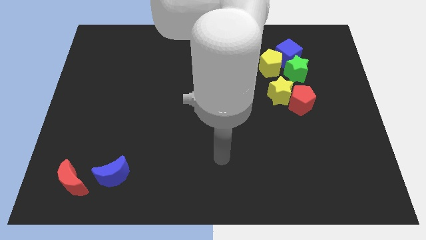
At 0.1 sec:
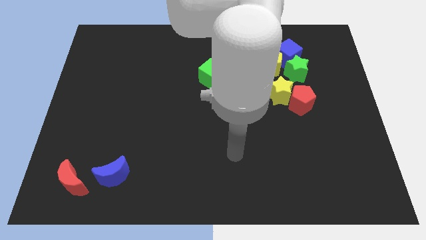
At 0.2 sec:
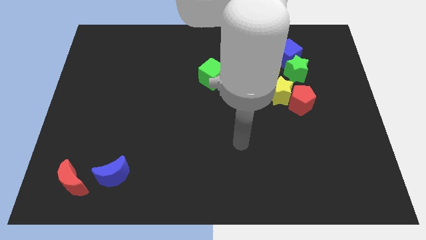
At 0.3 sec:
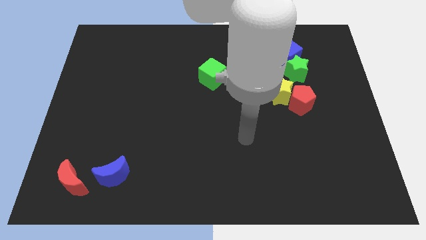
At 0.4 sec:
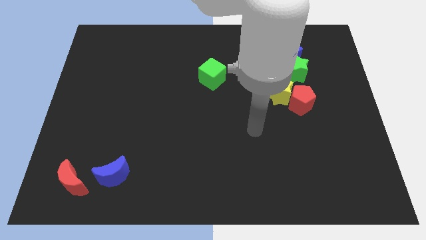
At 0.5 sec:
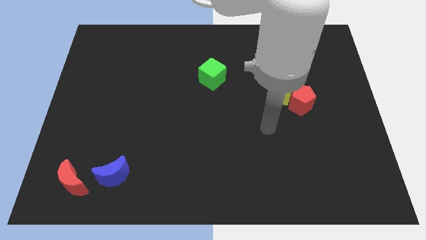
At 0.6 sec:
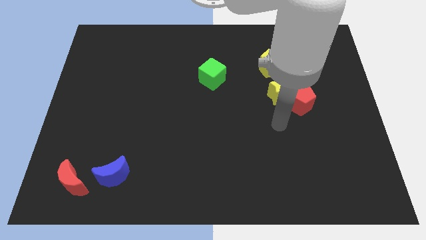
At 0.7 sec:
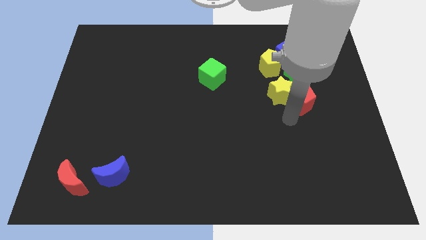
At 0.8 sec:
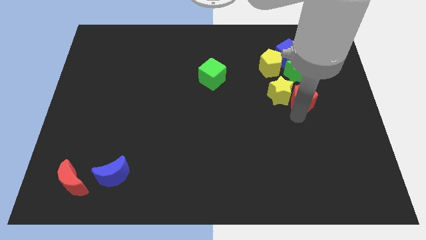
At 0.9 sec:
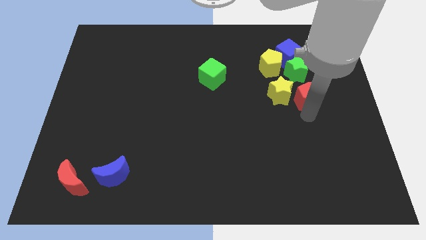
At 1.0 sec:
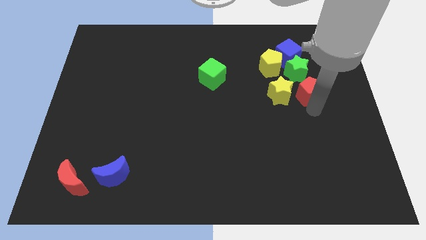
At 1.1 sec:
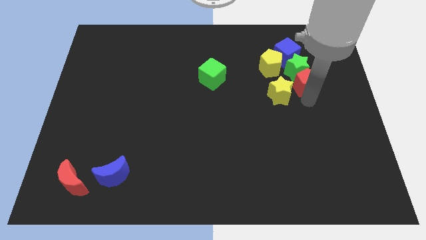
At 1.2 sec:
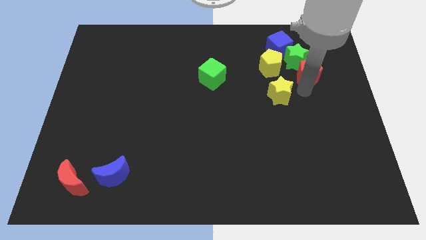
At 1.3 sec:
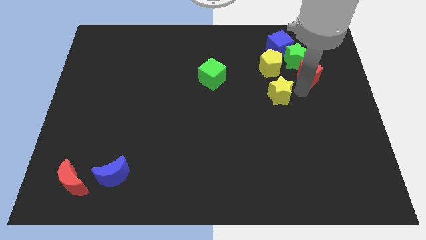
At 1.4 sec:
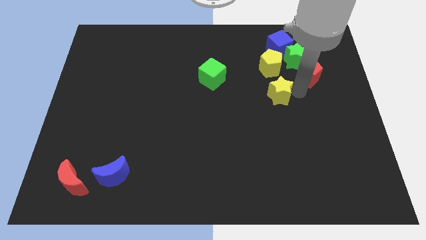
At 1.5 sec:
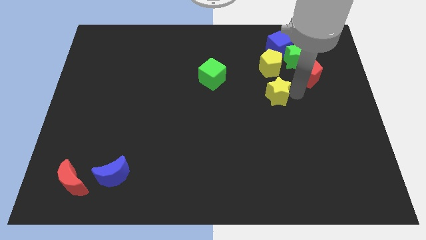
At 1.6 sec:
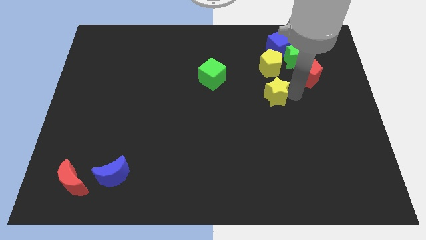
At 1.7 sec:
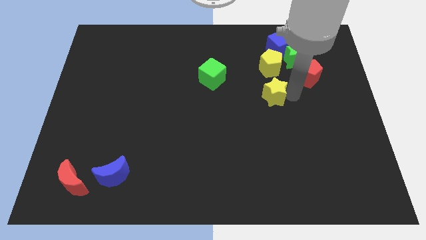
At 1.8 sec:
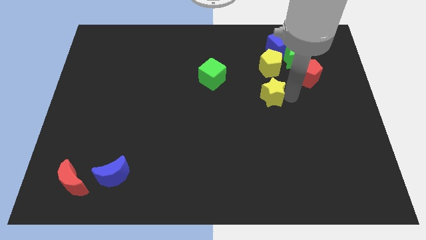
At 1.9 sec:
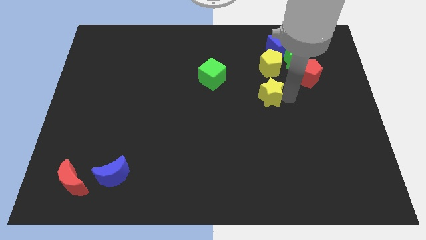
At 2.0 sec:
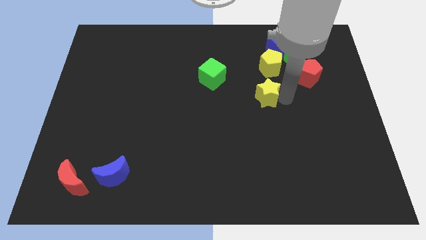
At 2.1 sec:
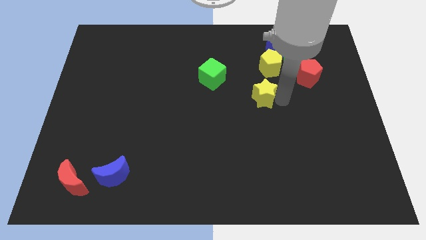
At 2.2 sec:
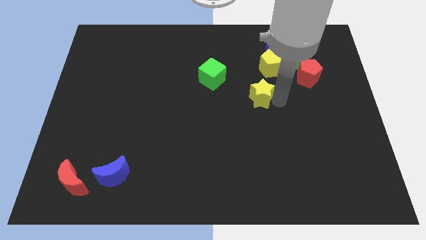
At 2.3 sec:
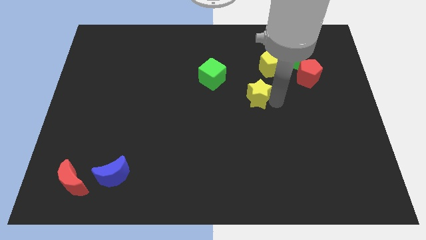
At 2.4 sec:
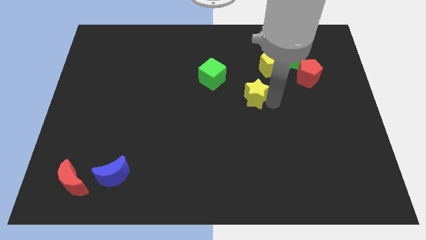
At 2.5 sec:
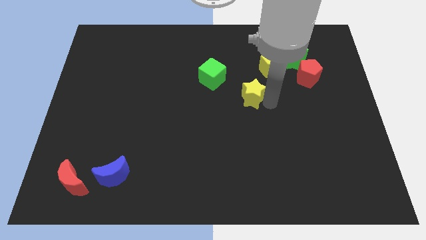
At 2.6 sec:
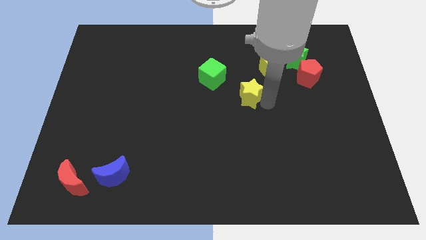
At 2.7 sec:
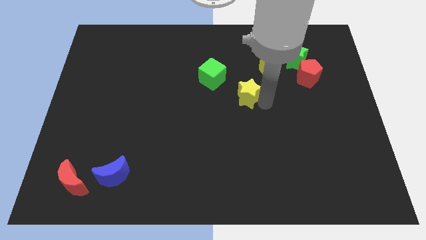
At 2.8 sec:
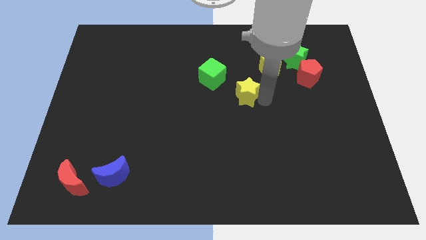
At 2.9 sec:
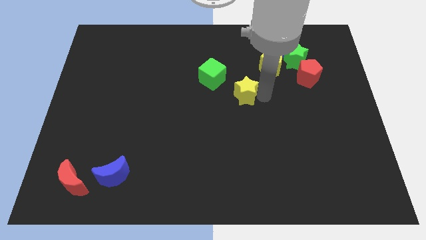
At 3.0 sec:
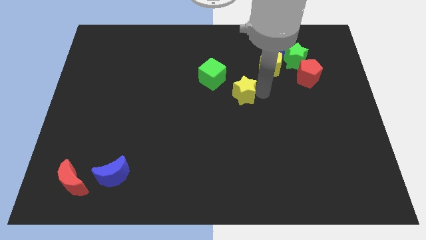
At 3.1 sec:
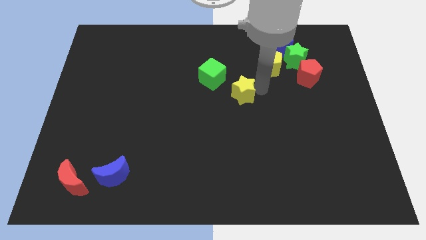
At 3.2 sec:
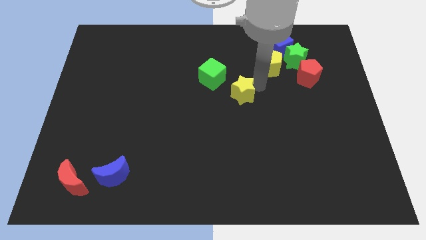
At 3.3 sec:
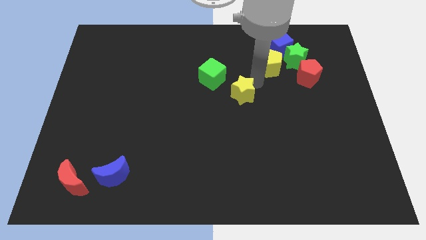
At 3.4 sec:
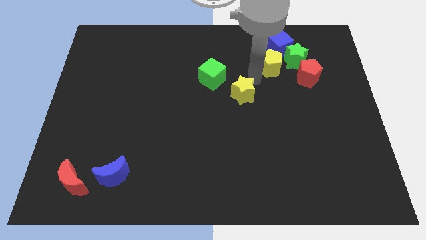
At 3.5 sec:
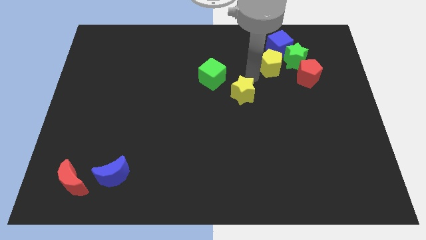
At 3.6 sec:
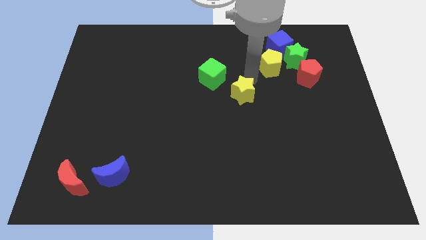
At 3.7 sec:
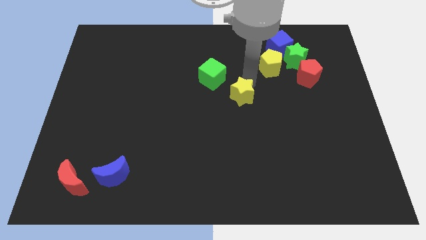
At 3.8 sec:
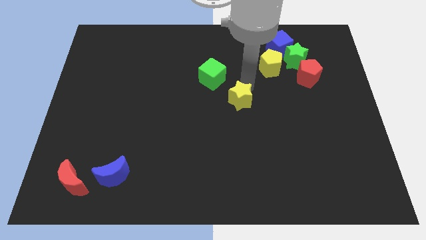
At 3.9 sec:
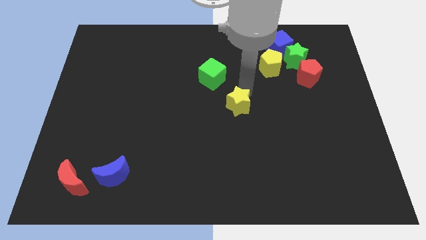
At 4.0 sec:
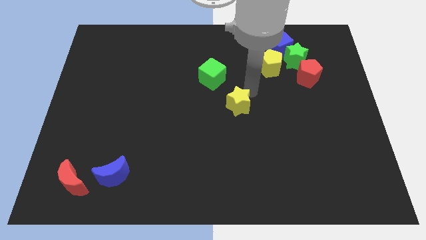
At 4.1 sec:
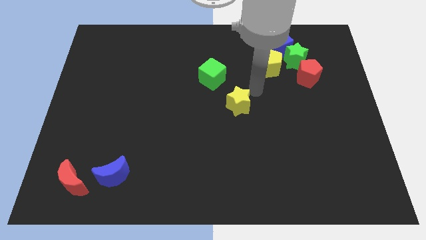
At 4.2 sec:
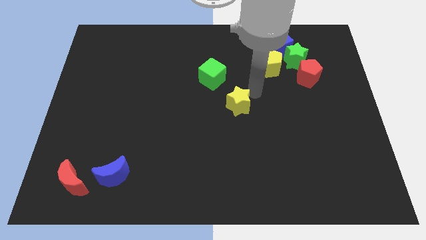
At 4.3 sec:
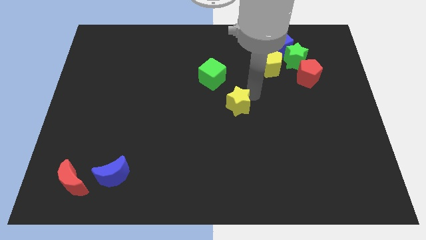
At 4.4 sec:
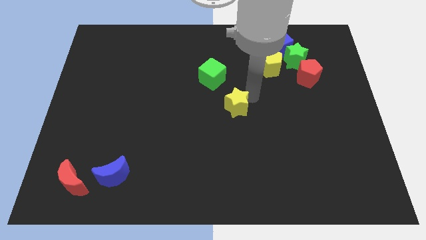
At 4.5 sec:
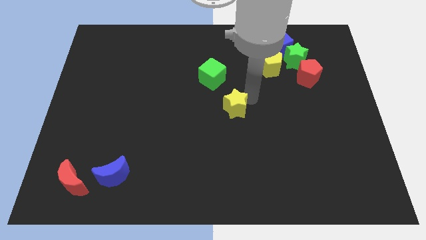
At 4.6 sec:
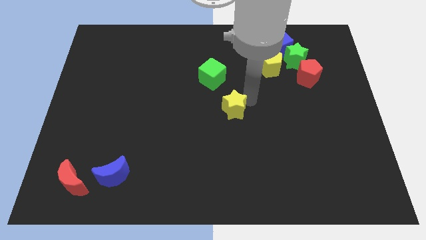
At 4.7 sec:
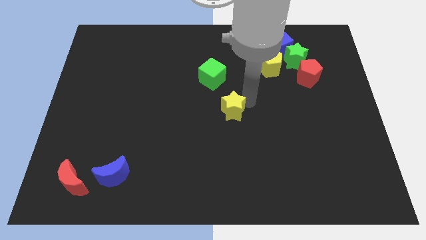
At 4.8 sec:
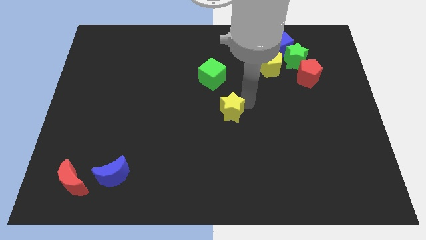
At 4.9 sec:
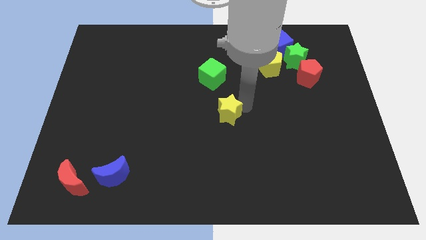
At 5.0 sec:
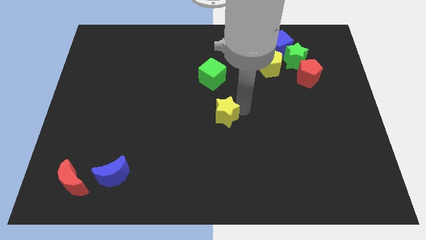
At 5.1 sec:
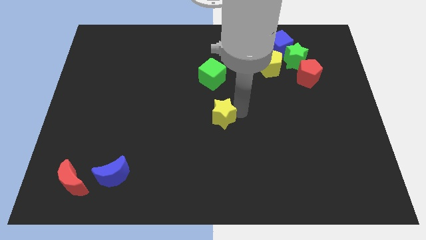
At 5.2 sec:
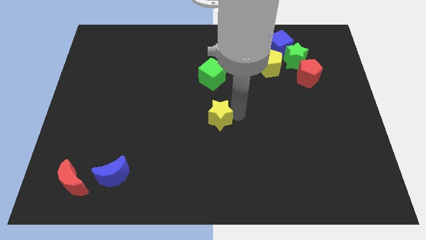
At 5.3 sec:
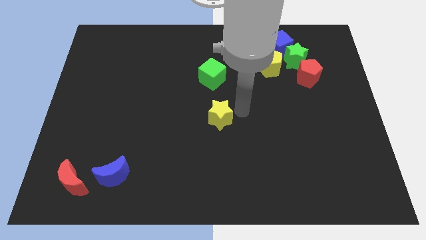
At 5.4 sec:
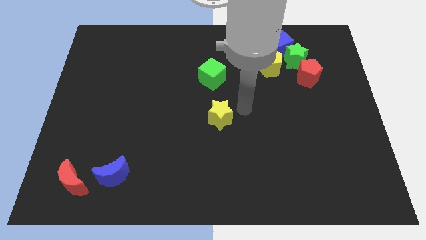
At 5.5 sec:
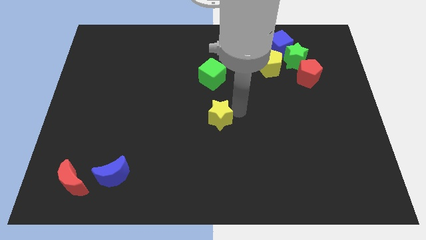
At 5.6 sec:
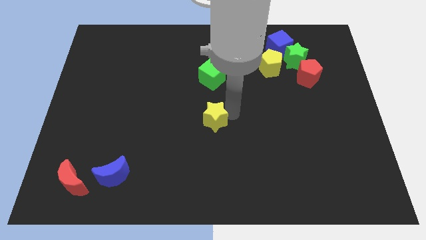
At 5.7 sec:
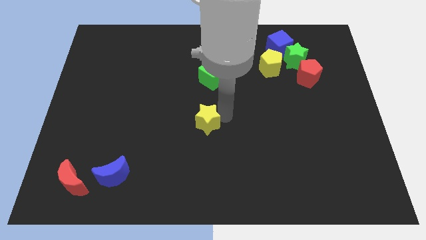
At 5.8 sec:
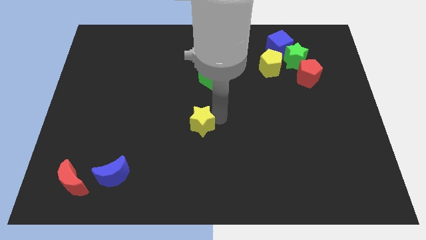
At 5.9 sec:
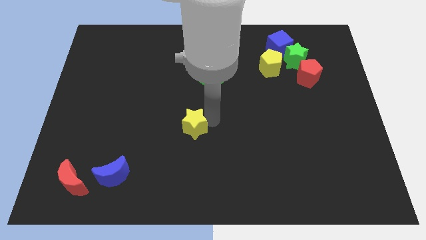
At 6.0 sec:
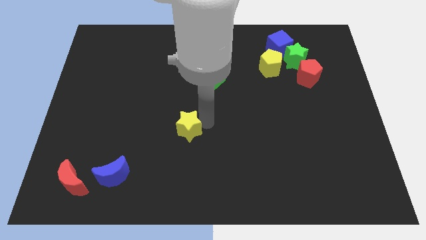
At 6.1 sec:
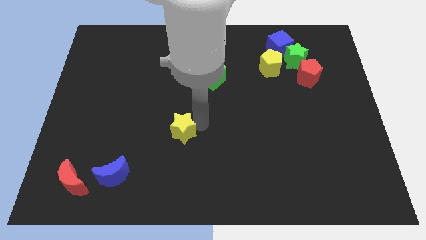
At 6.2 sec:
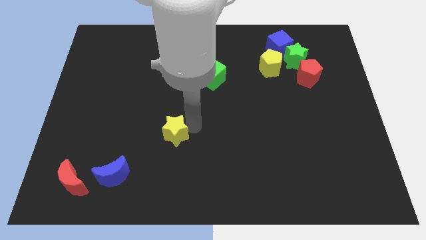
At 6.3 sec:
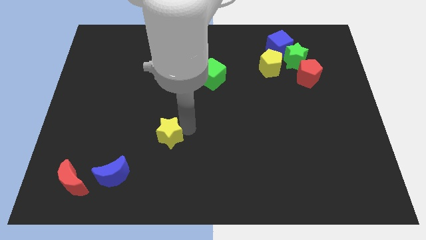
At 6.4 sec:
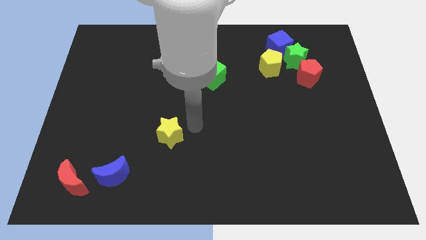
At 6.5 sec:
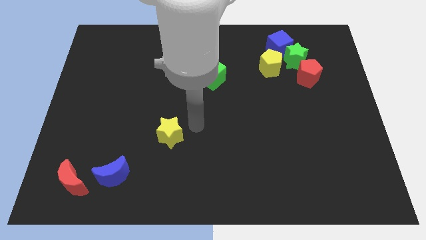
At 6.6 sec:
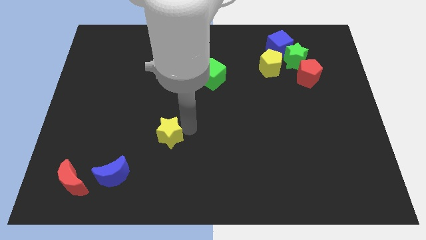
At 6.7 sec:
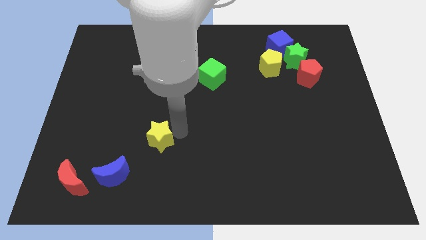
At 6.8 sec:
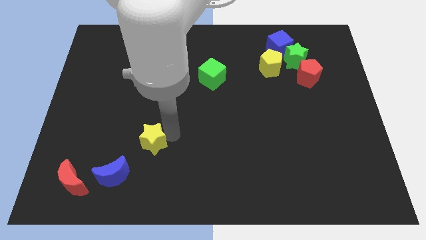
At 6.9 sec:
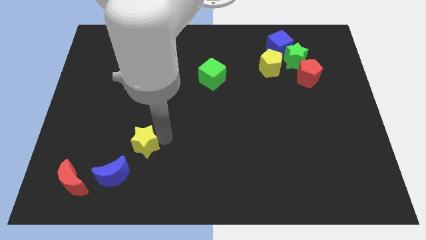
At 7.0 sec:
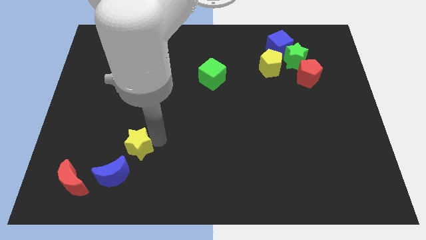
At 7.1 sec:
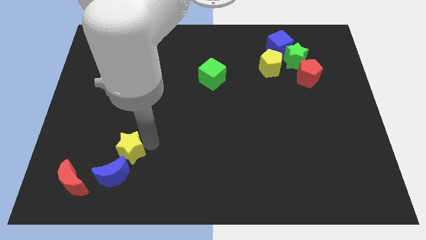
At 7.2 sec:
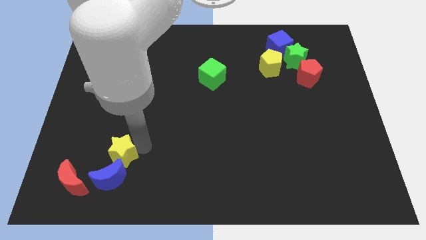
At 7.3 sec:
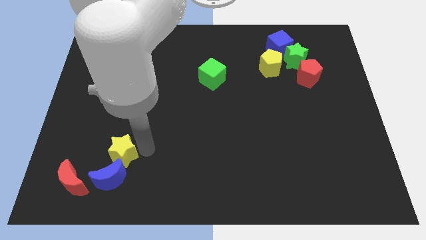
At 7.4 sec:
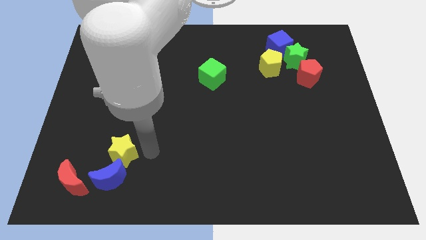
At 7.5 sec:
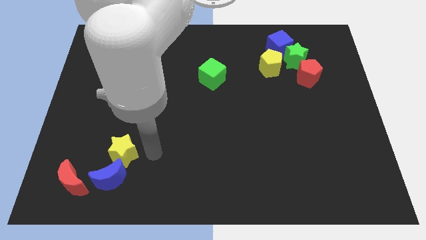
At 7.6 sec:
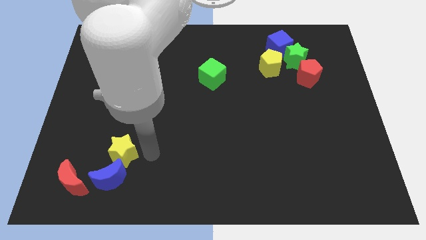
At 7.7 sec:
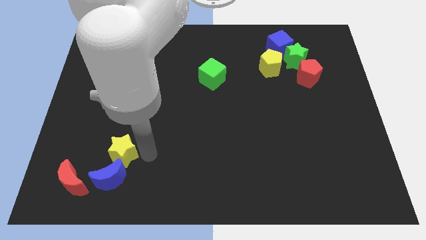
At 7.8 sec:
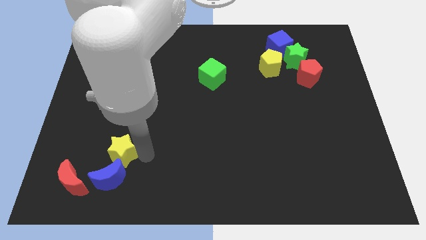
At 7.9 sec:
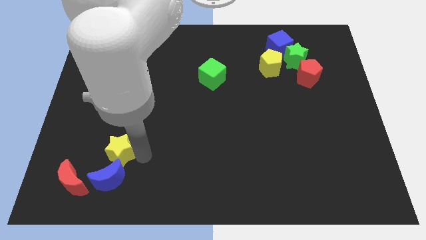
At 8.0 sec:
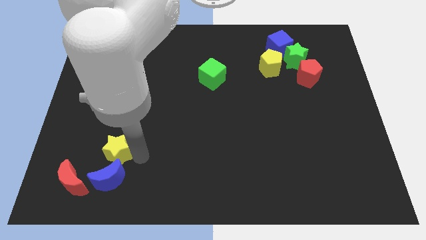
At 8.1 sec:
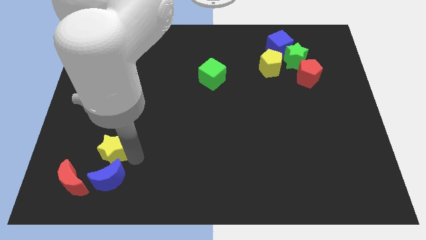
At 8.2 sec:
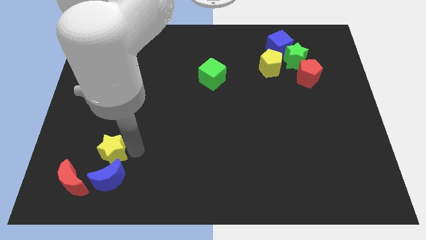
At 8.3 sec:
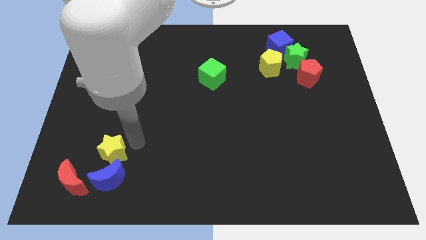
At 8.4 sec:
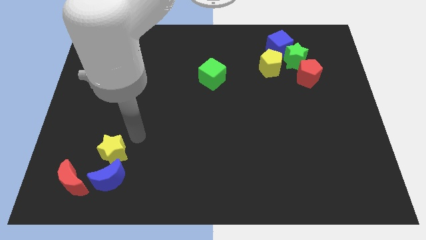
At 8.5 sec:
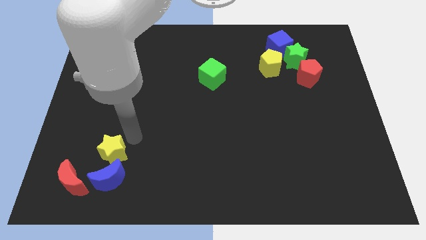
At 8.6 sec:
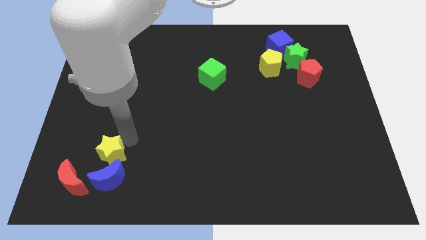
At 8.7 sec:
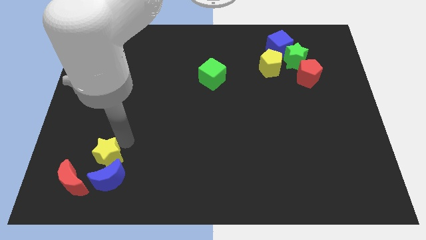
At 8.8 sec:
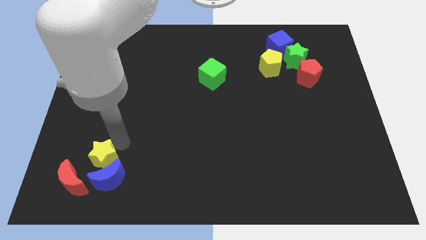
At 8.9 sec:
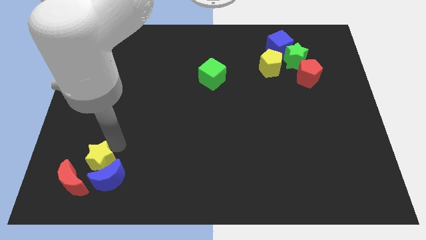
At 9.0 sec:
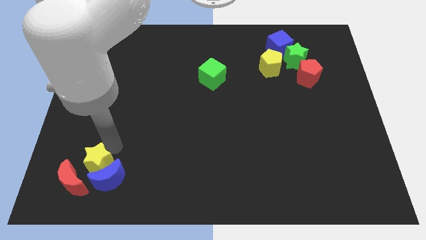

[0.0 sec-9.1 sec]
put the yellow star towards the red moon
